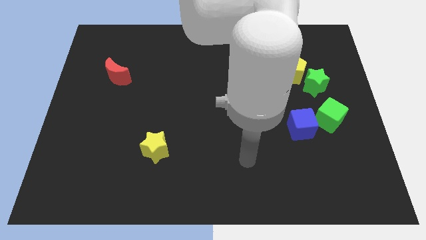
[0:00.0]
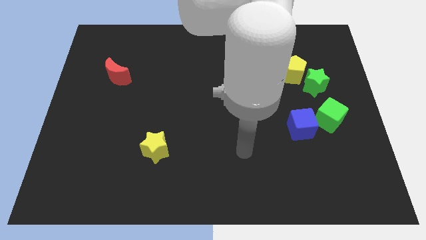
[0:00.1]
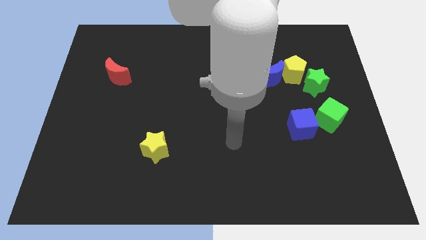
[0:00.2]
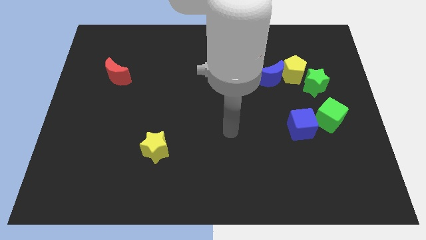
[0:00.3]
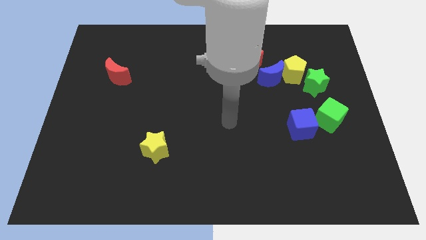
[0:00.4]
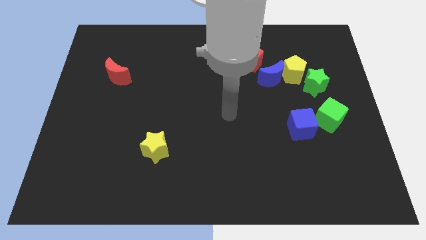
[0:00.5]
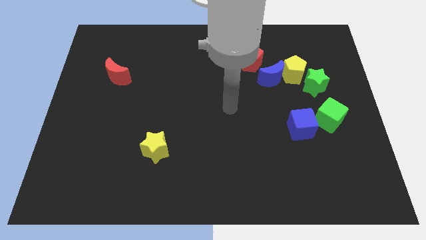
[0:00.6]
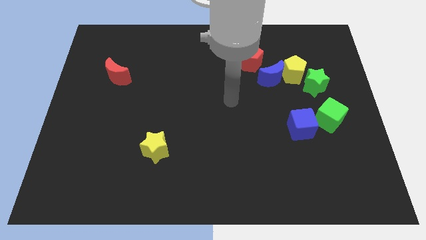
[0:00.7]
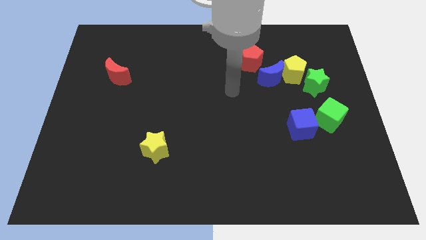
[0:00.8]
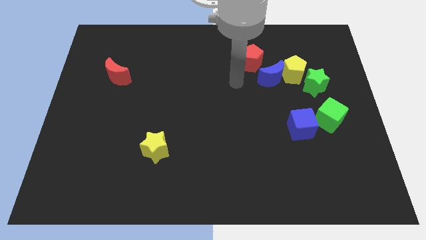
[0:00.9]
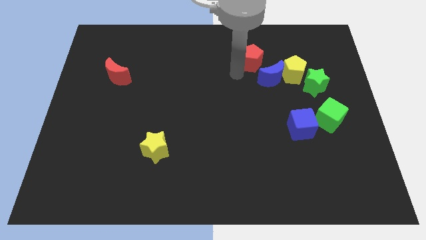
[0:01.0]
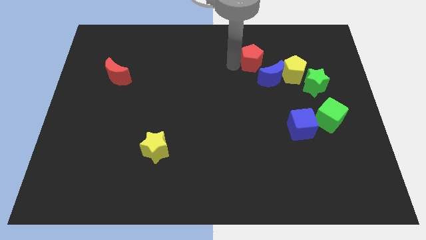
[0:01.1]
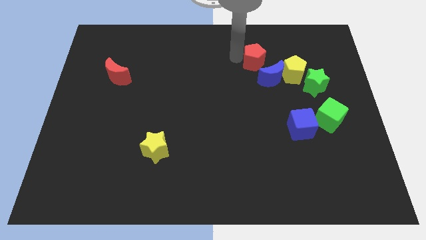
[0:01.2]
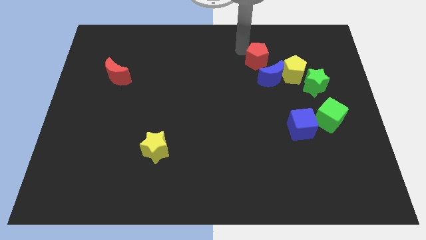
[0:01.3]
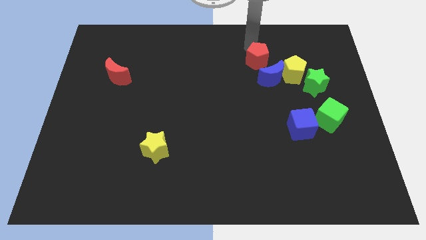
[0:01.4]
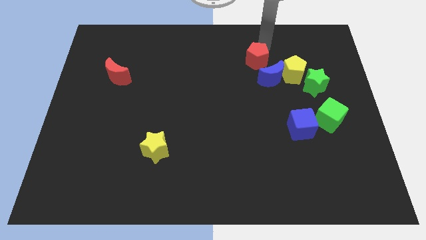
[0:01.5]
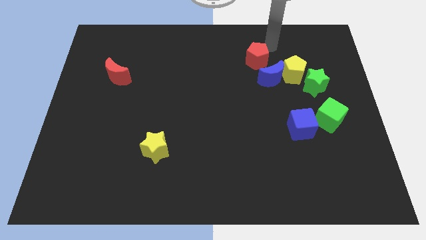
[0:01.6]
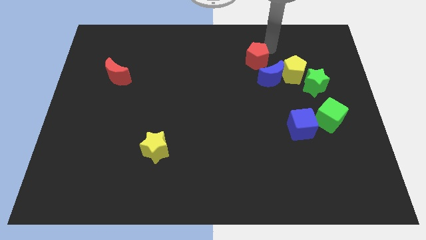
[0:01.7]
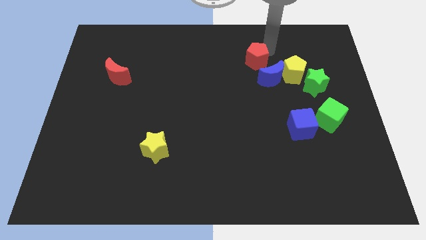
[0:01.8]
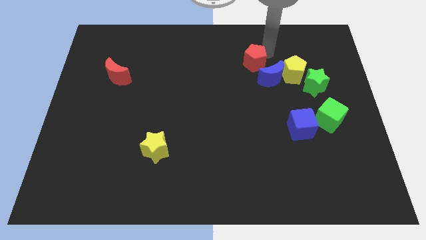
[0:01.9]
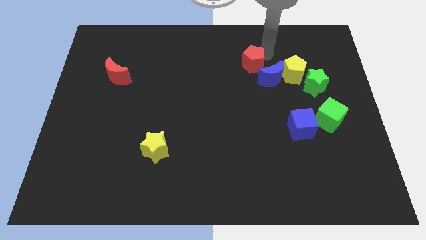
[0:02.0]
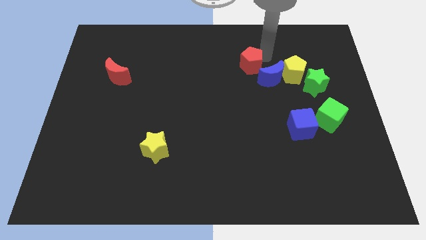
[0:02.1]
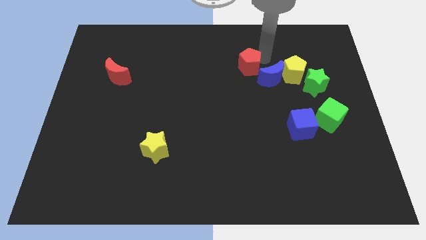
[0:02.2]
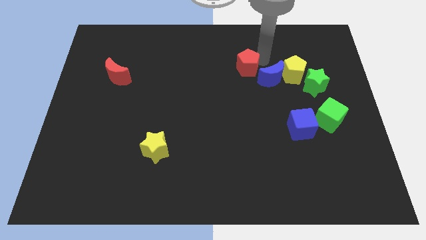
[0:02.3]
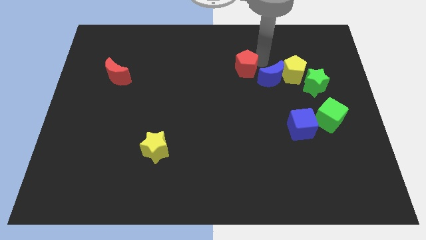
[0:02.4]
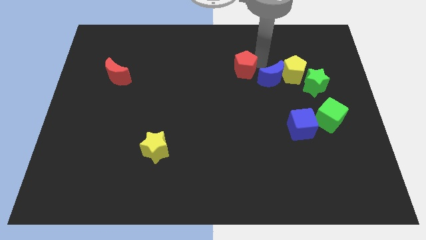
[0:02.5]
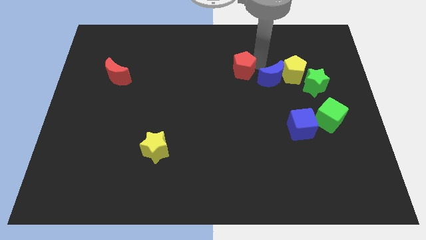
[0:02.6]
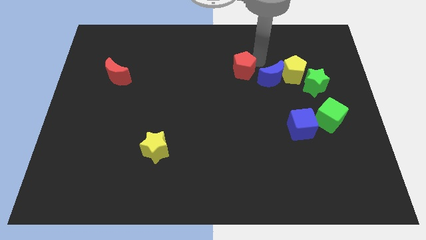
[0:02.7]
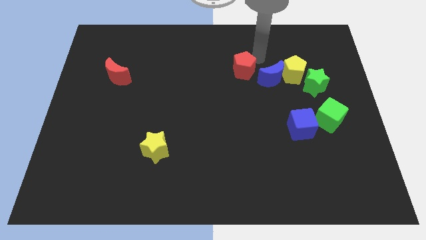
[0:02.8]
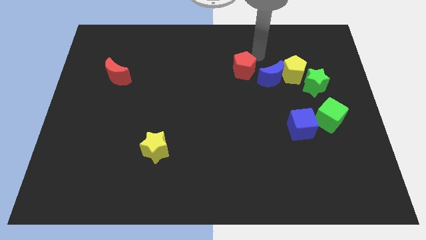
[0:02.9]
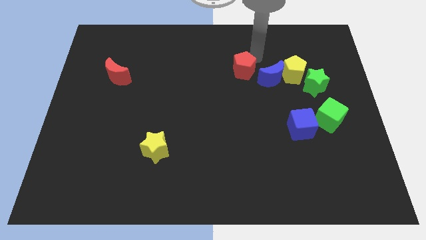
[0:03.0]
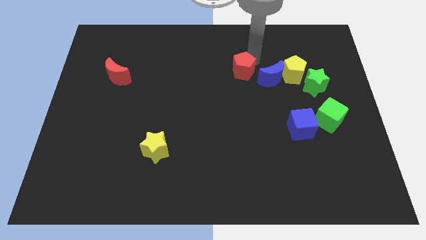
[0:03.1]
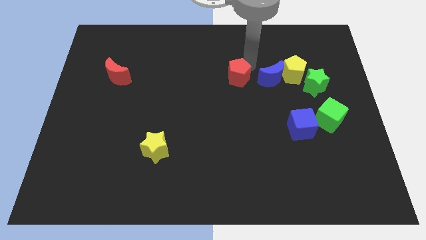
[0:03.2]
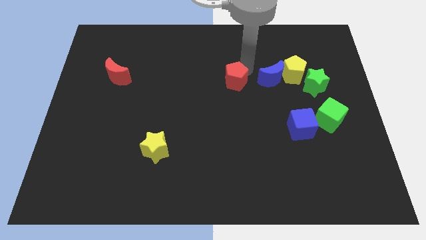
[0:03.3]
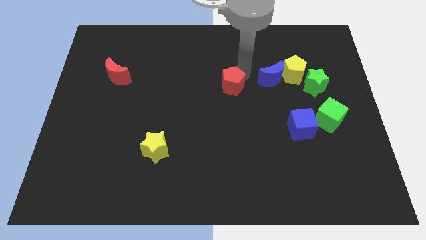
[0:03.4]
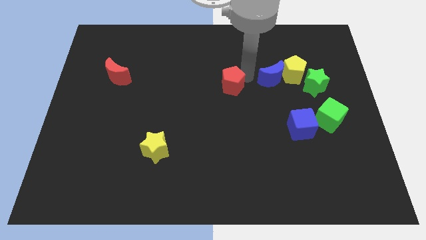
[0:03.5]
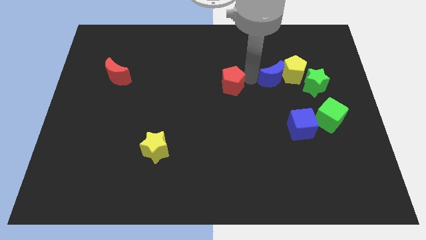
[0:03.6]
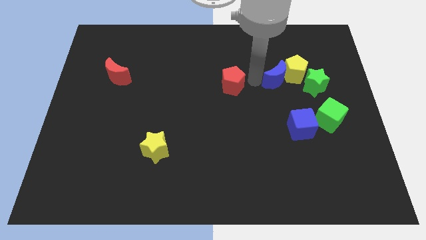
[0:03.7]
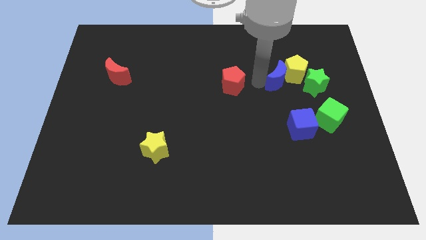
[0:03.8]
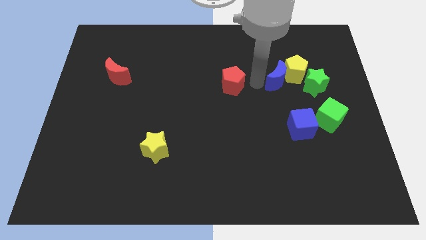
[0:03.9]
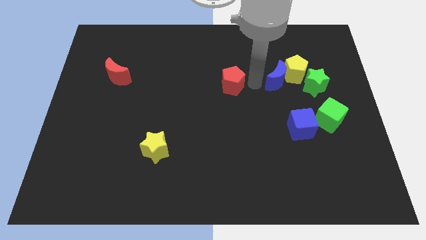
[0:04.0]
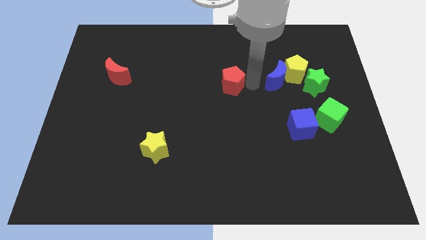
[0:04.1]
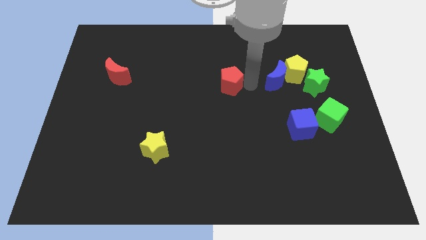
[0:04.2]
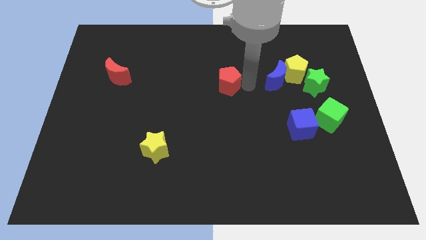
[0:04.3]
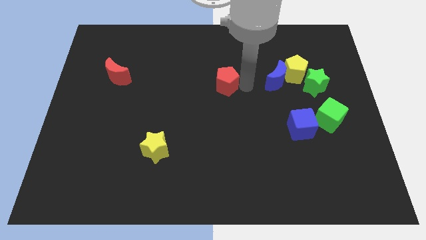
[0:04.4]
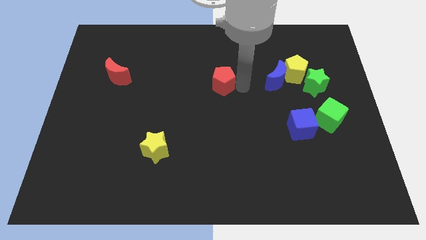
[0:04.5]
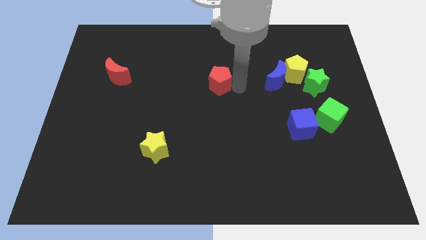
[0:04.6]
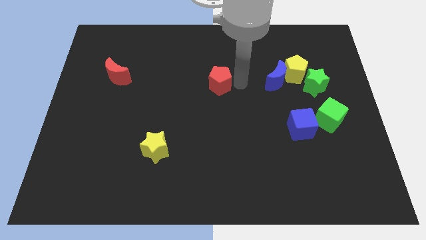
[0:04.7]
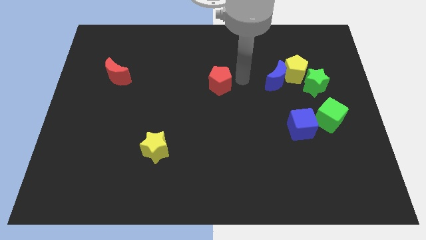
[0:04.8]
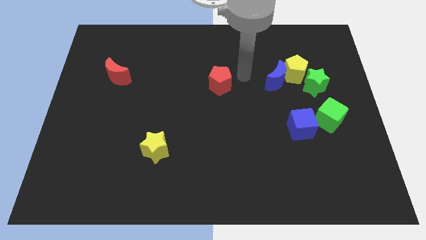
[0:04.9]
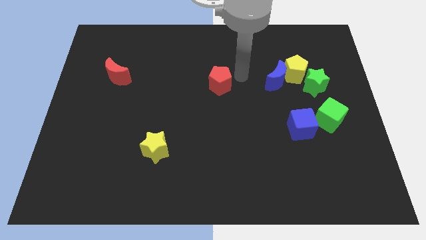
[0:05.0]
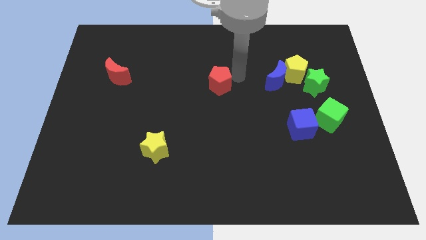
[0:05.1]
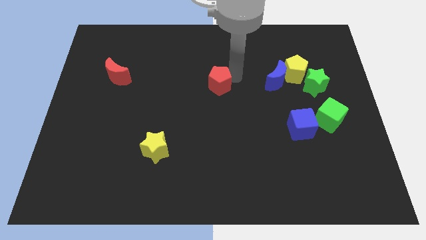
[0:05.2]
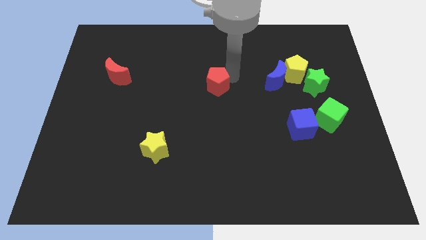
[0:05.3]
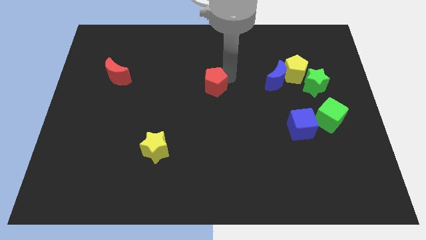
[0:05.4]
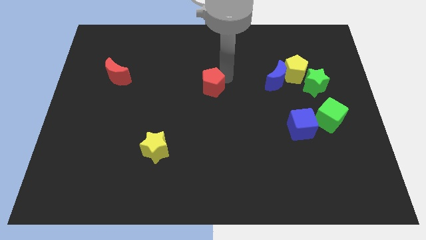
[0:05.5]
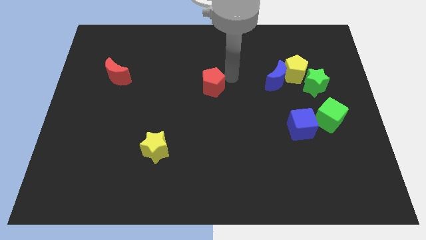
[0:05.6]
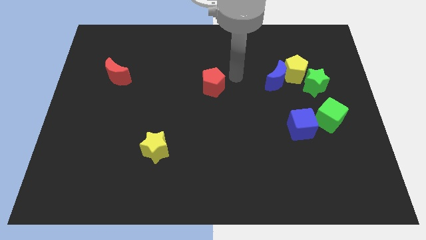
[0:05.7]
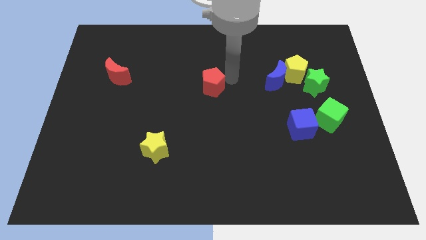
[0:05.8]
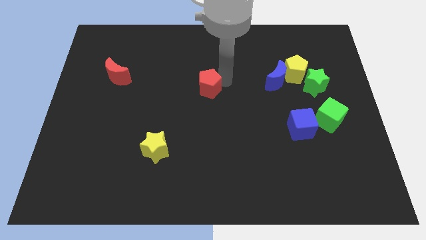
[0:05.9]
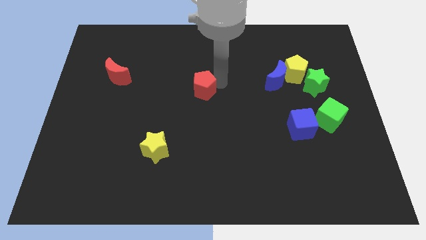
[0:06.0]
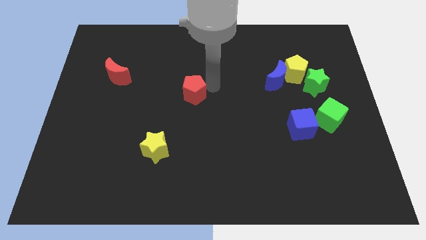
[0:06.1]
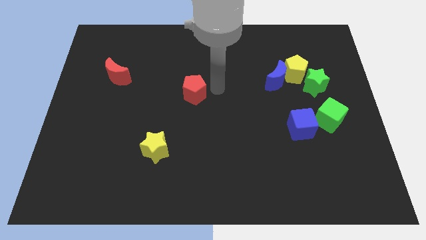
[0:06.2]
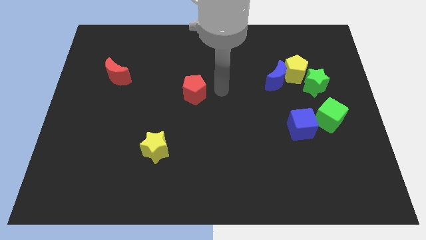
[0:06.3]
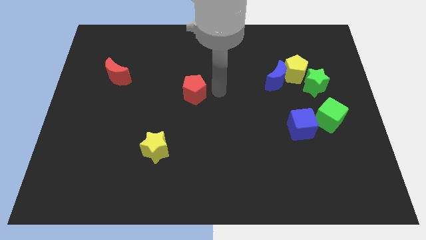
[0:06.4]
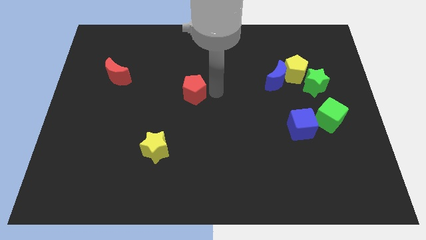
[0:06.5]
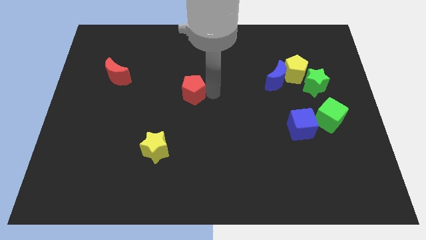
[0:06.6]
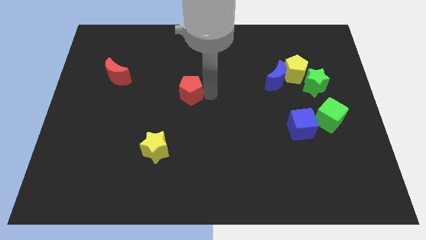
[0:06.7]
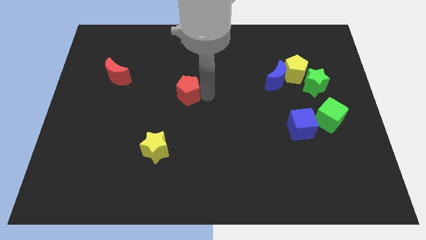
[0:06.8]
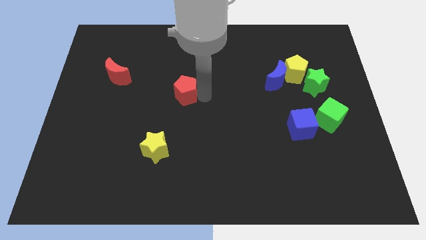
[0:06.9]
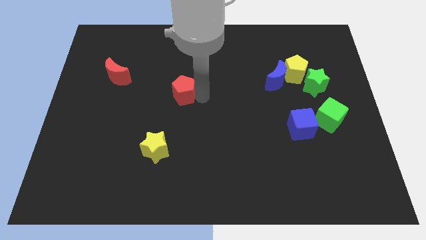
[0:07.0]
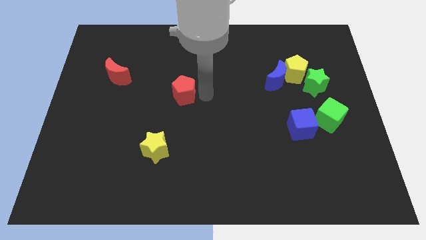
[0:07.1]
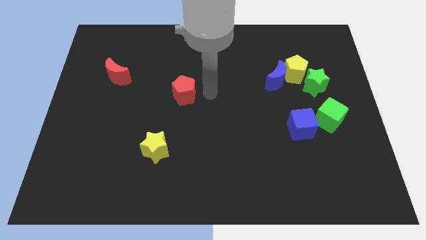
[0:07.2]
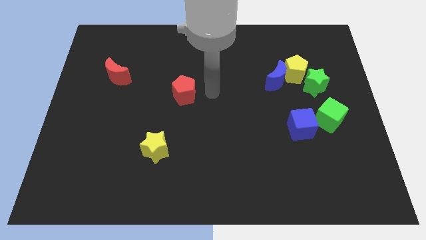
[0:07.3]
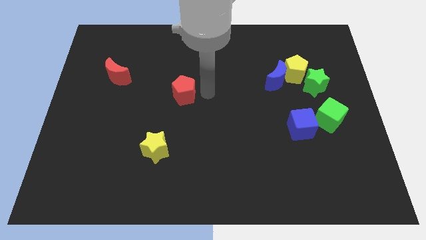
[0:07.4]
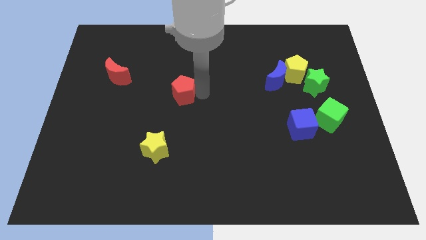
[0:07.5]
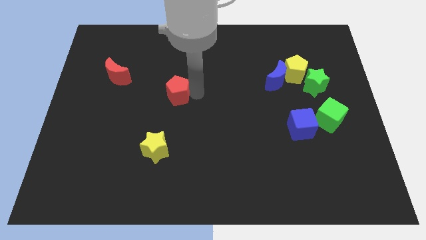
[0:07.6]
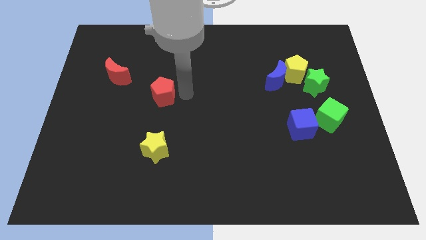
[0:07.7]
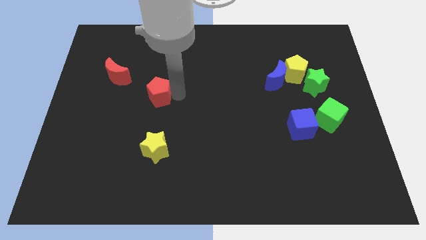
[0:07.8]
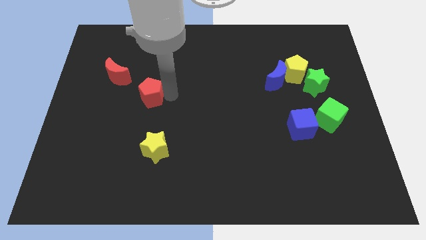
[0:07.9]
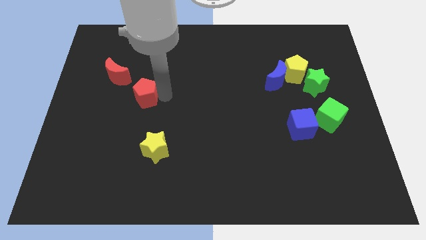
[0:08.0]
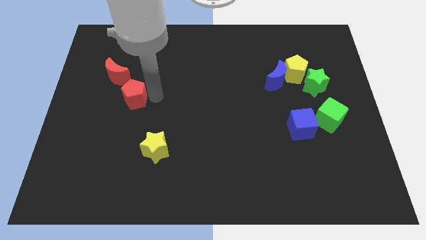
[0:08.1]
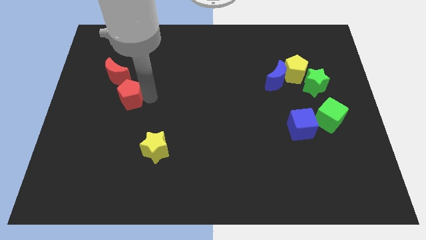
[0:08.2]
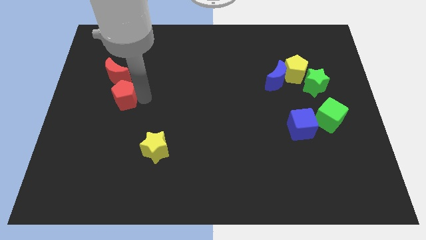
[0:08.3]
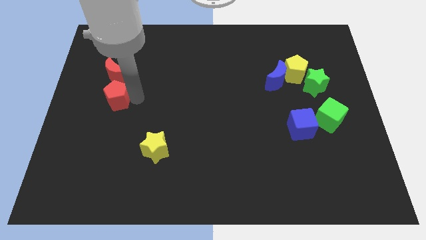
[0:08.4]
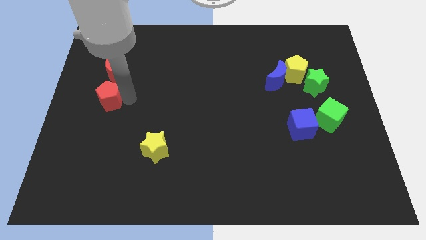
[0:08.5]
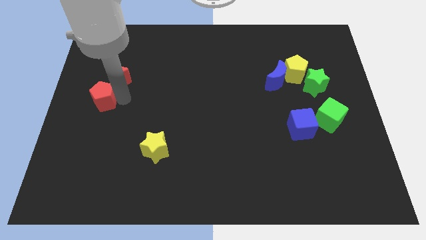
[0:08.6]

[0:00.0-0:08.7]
put the red pentagon to the left side of the board
